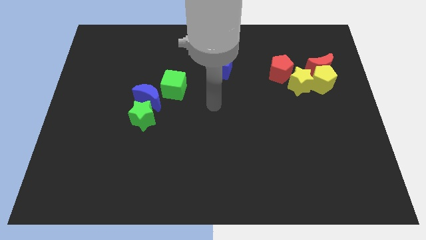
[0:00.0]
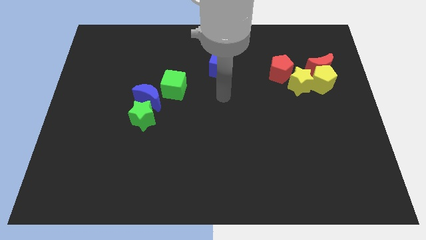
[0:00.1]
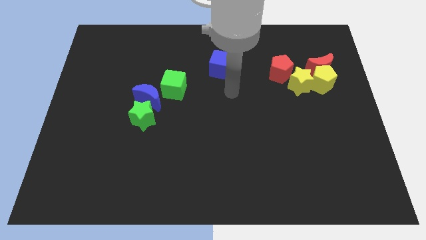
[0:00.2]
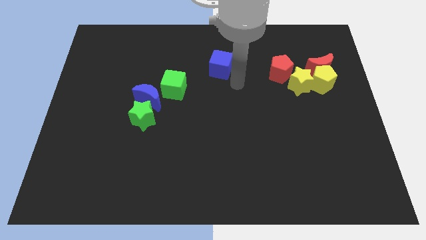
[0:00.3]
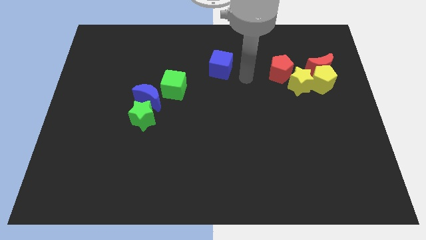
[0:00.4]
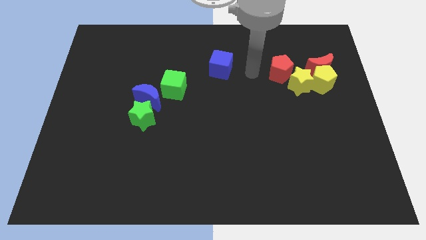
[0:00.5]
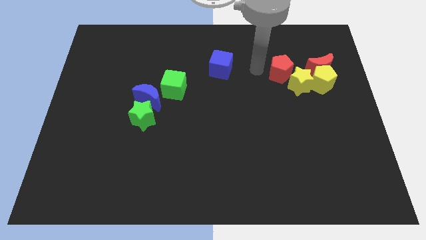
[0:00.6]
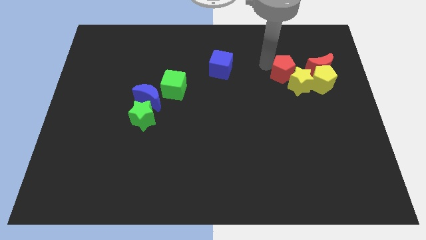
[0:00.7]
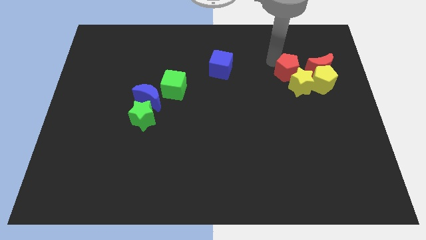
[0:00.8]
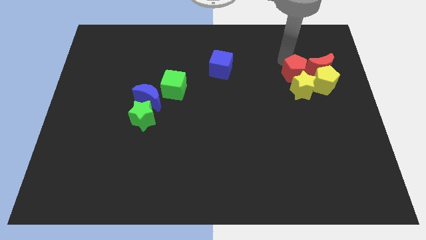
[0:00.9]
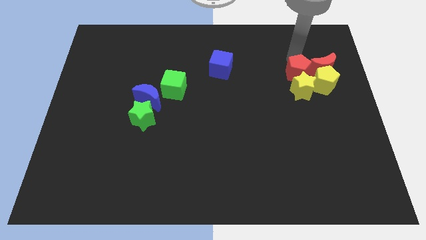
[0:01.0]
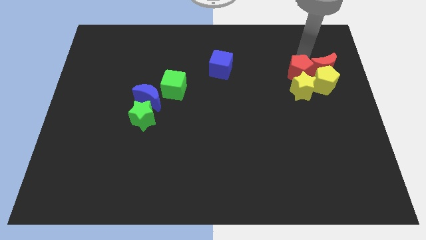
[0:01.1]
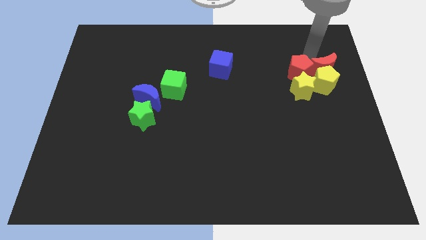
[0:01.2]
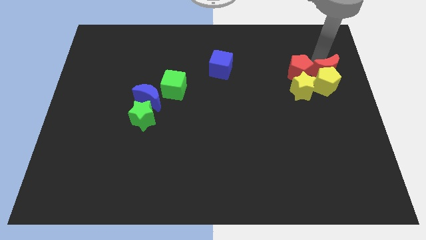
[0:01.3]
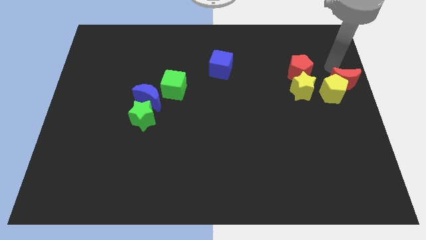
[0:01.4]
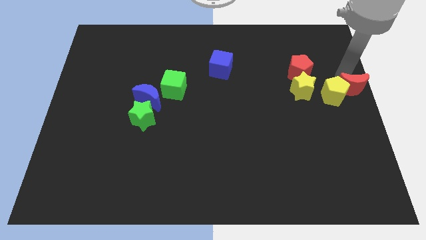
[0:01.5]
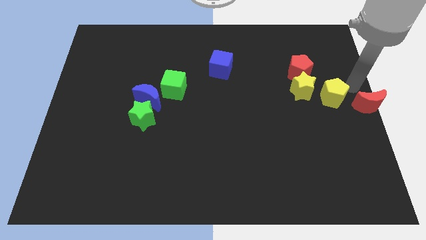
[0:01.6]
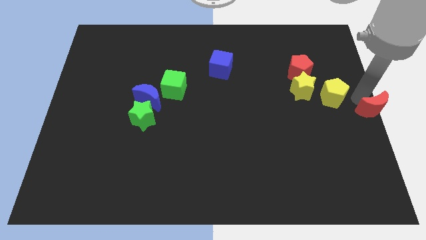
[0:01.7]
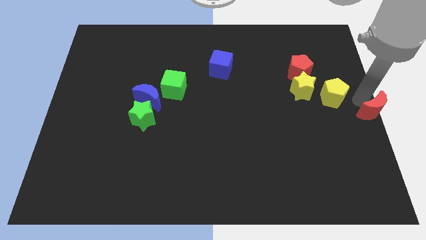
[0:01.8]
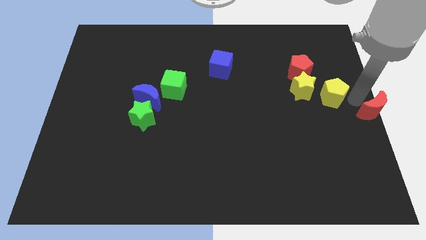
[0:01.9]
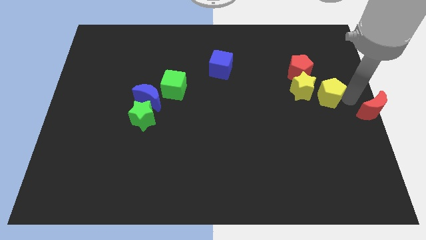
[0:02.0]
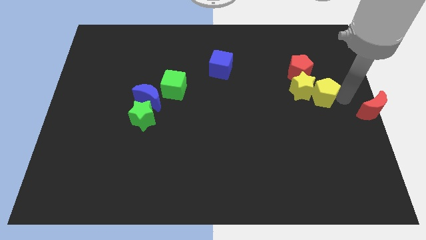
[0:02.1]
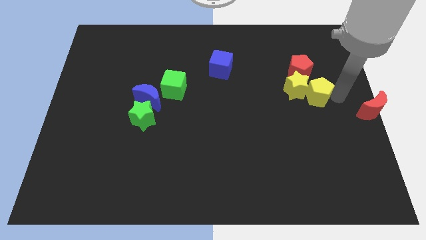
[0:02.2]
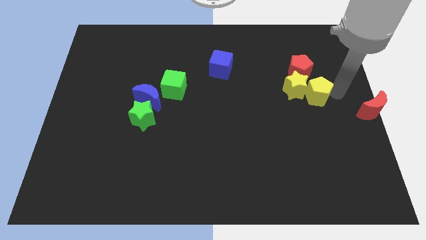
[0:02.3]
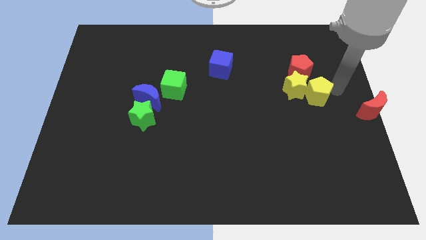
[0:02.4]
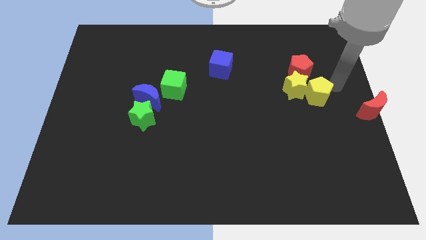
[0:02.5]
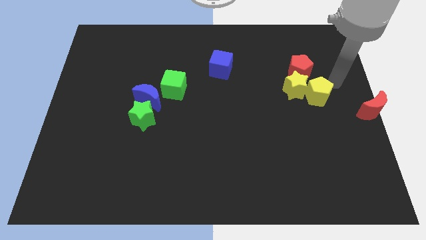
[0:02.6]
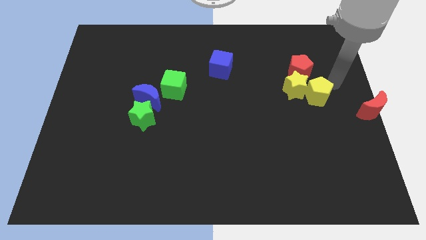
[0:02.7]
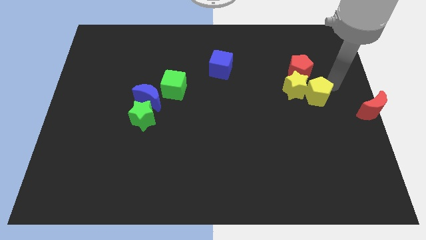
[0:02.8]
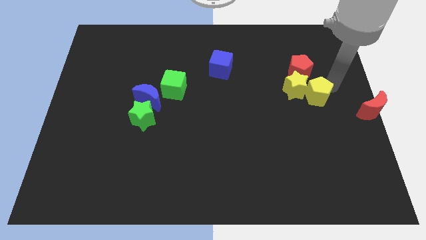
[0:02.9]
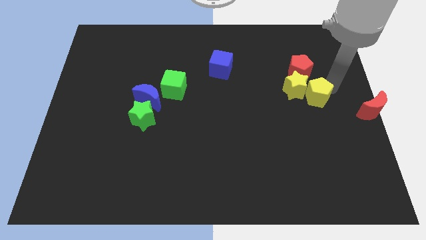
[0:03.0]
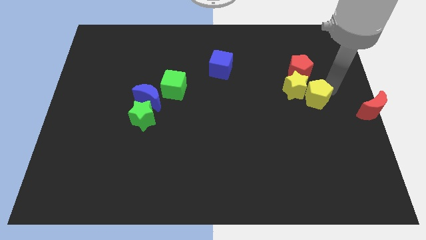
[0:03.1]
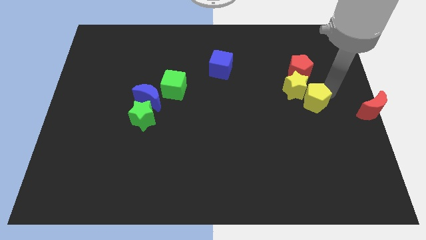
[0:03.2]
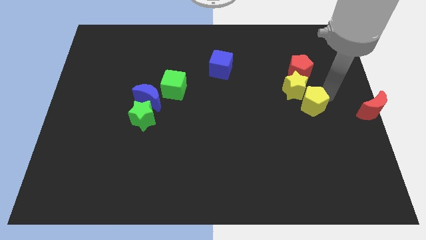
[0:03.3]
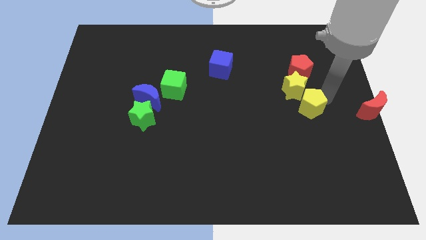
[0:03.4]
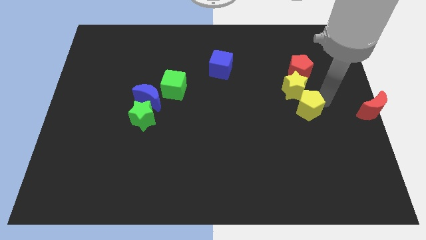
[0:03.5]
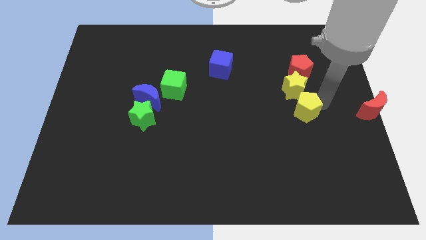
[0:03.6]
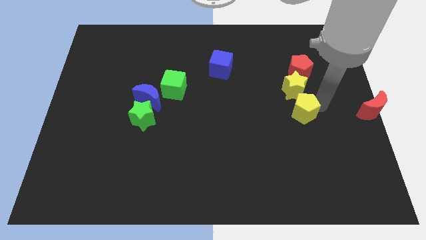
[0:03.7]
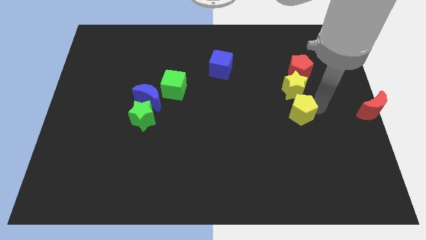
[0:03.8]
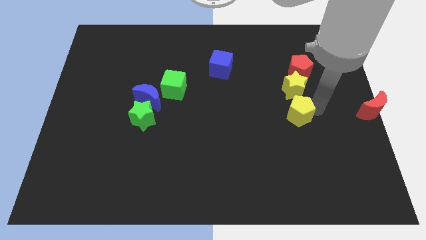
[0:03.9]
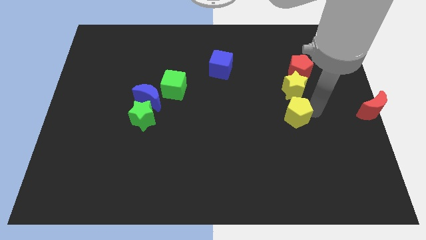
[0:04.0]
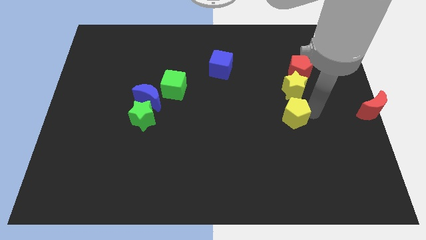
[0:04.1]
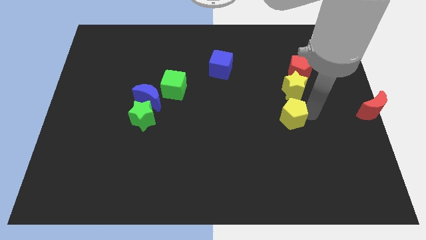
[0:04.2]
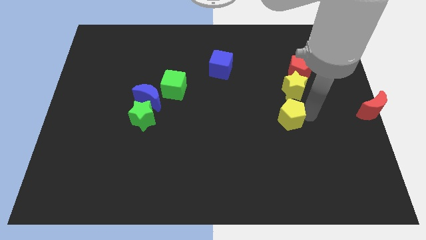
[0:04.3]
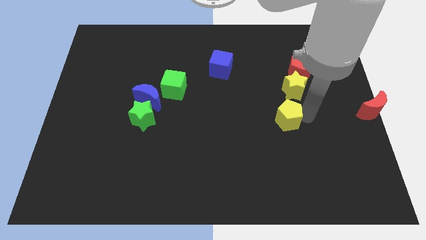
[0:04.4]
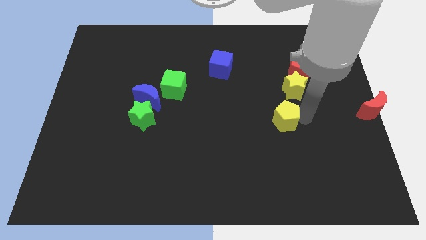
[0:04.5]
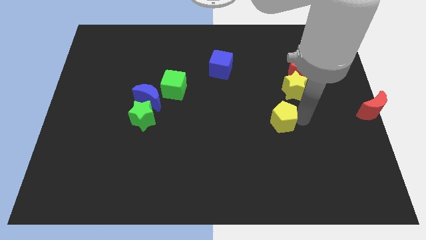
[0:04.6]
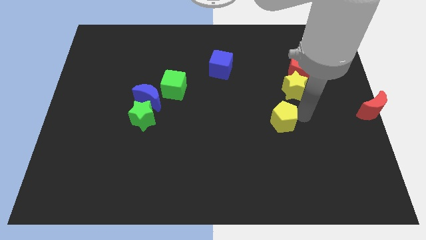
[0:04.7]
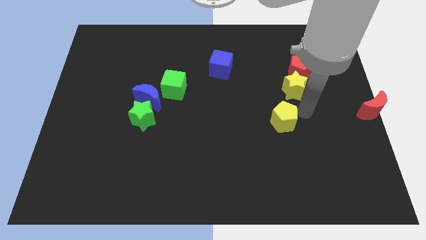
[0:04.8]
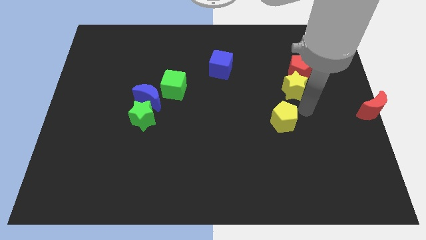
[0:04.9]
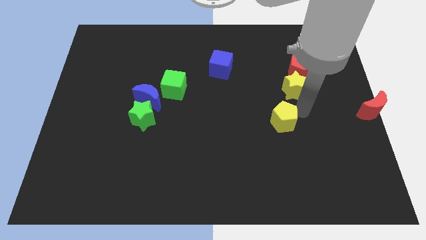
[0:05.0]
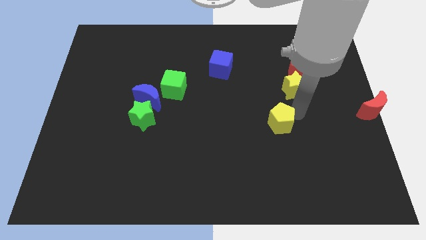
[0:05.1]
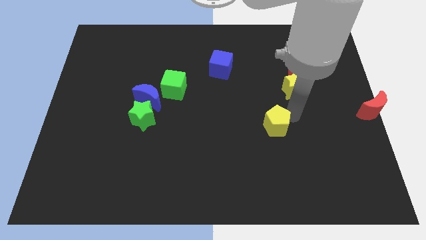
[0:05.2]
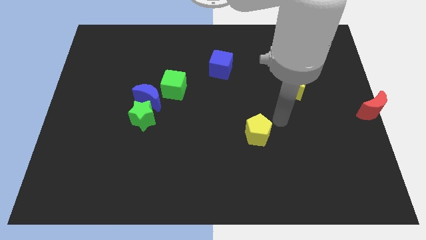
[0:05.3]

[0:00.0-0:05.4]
move the yellow pentagon down and to the left diagonally

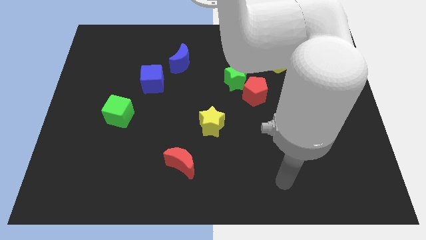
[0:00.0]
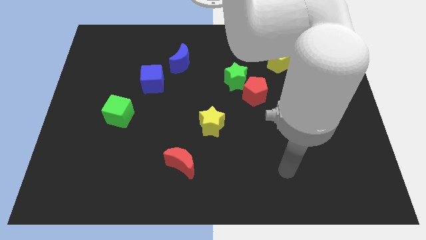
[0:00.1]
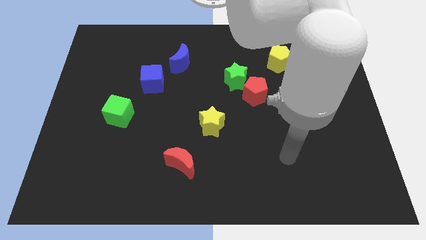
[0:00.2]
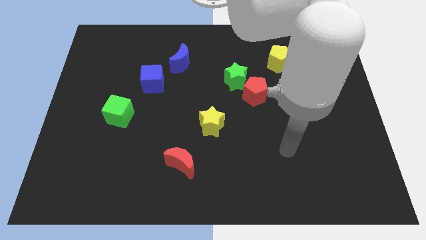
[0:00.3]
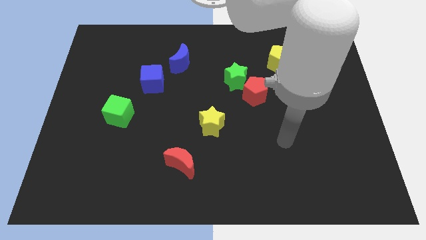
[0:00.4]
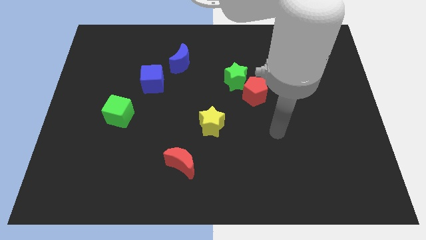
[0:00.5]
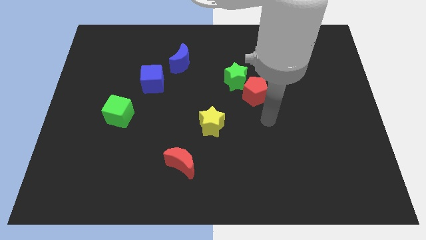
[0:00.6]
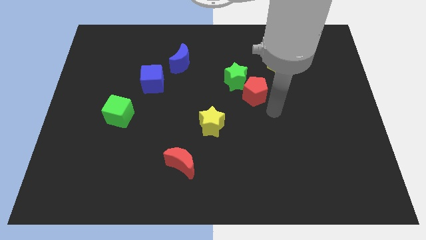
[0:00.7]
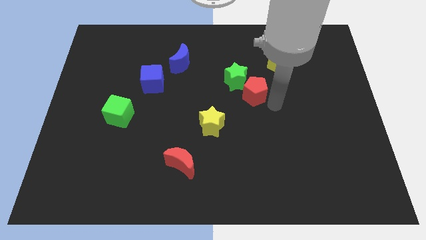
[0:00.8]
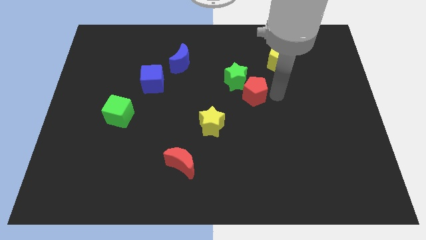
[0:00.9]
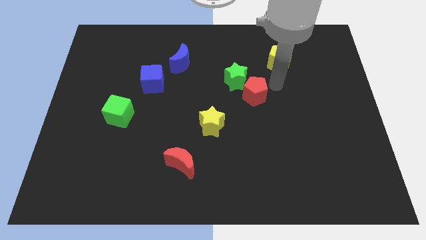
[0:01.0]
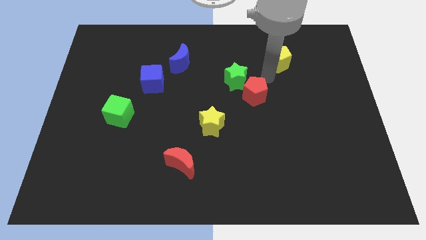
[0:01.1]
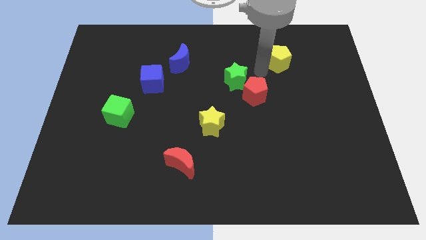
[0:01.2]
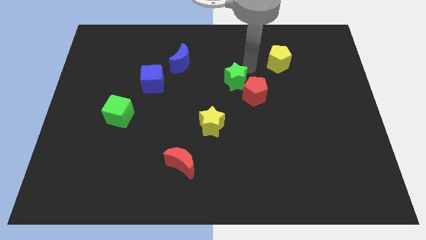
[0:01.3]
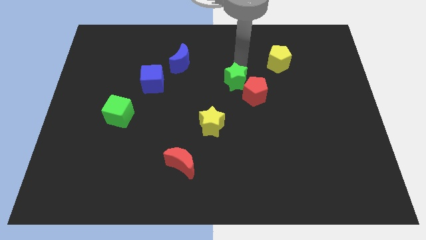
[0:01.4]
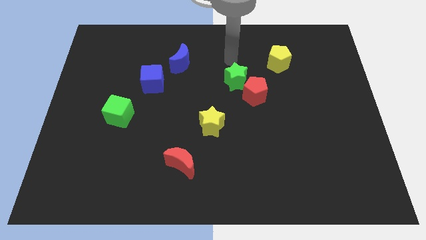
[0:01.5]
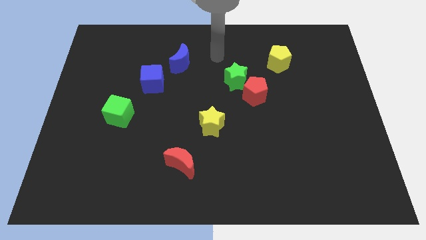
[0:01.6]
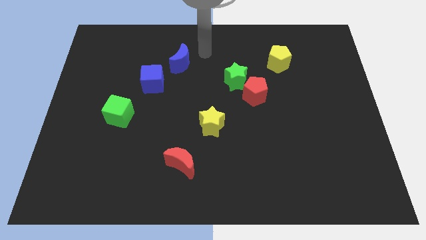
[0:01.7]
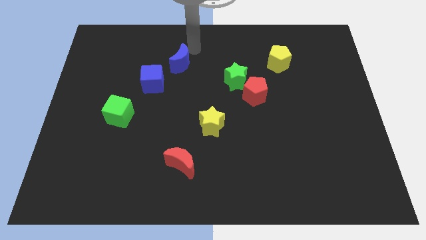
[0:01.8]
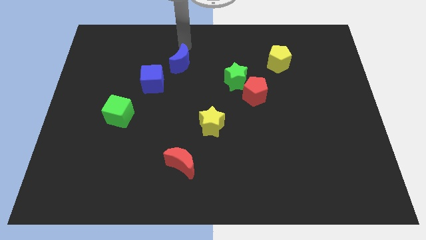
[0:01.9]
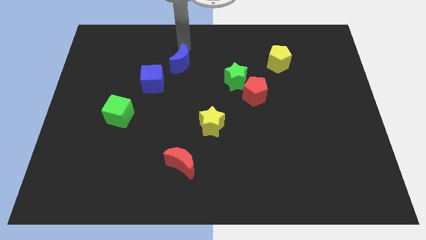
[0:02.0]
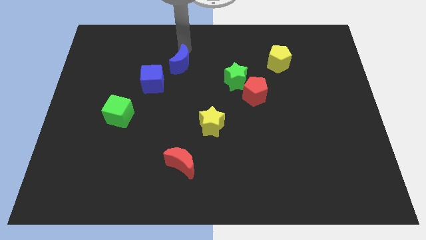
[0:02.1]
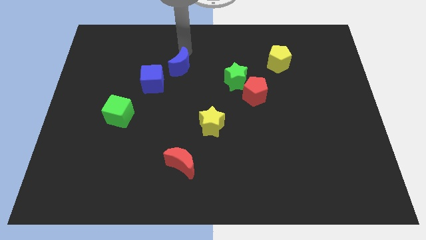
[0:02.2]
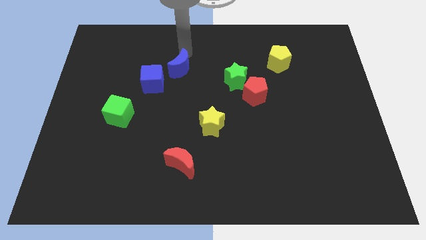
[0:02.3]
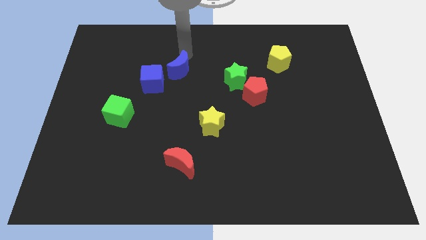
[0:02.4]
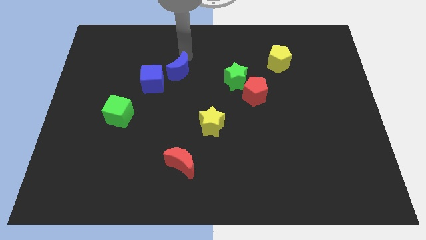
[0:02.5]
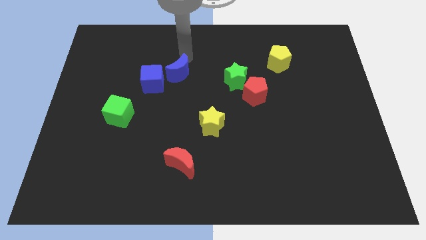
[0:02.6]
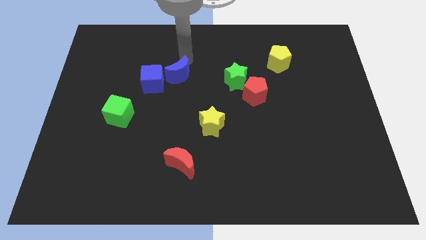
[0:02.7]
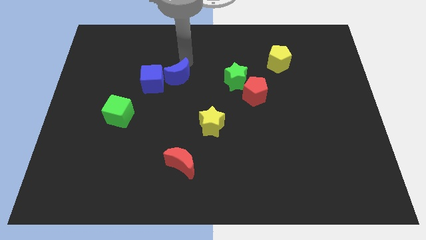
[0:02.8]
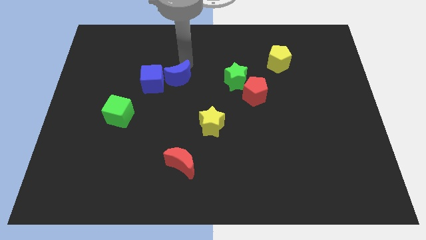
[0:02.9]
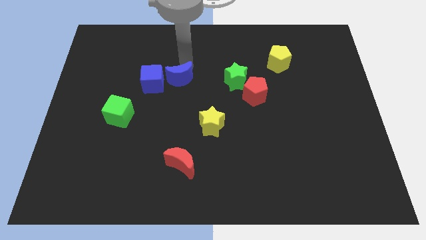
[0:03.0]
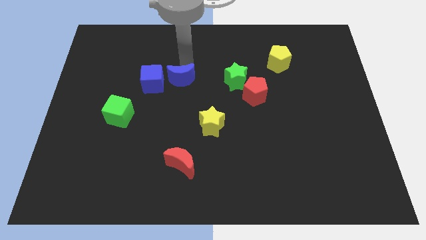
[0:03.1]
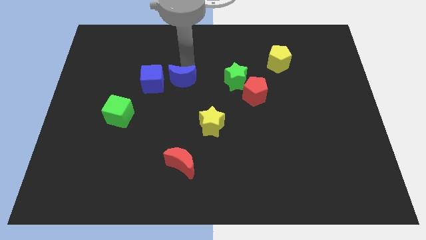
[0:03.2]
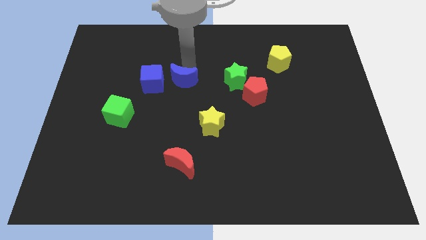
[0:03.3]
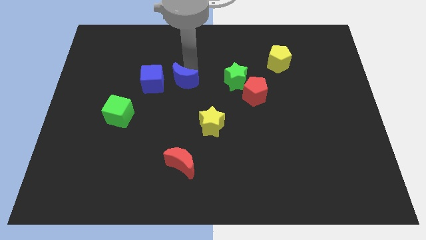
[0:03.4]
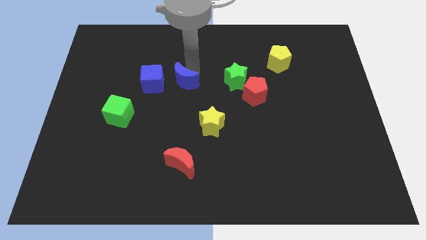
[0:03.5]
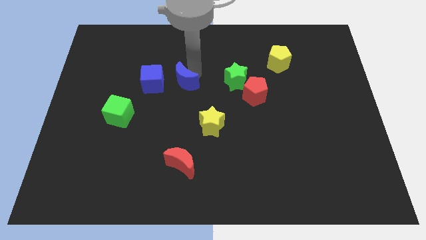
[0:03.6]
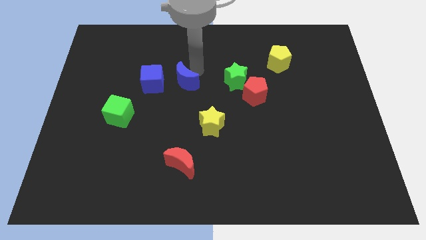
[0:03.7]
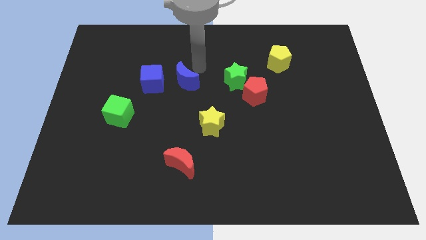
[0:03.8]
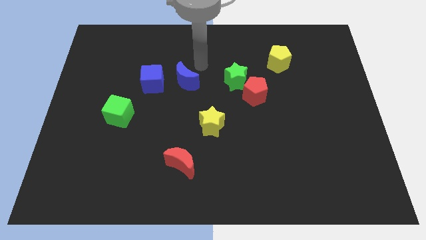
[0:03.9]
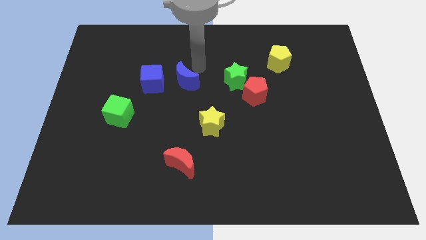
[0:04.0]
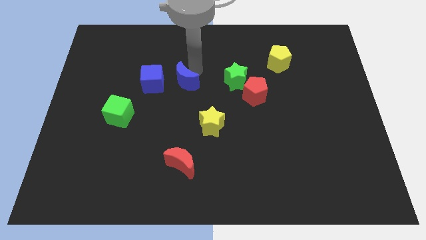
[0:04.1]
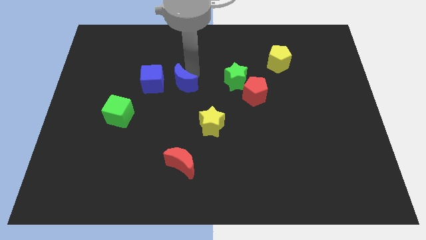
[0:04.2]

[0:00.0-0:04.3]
push the blue moon down a little
